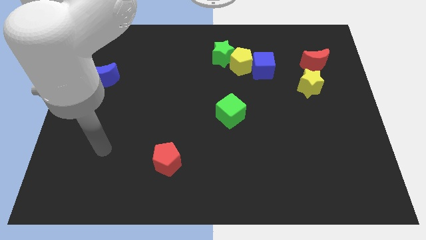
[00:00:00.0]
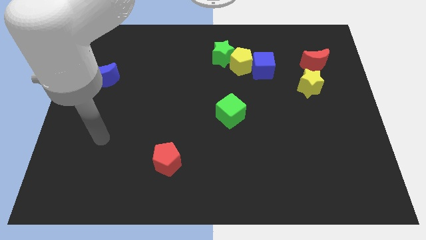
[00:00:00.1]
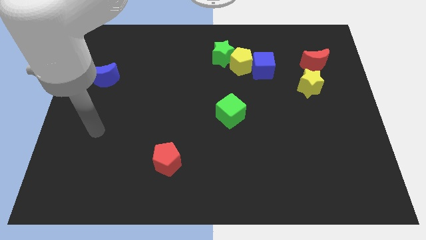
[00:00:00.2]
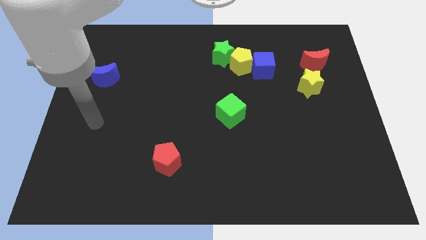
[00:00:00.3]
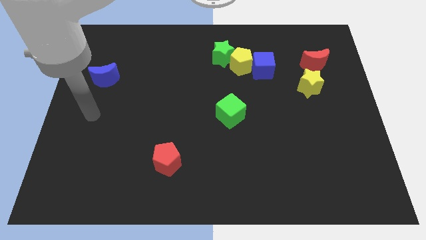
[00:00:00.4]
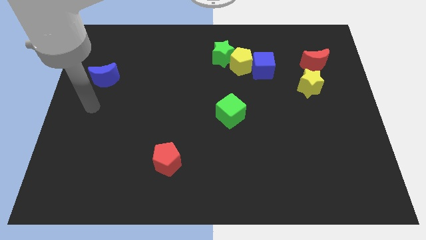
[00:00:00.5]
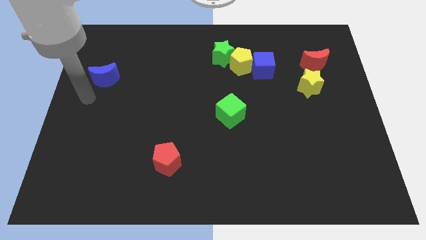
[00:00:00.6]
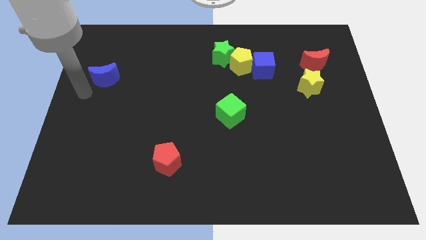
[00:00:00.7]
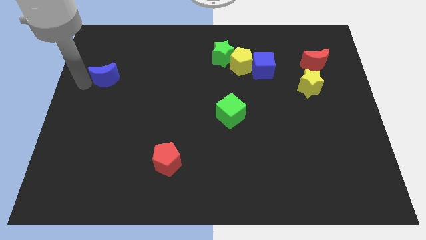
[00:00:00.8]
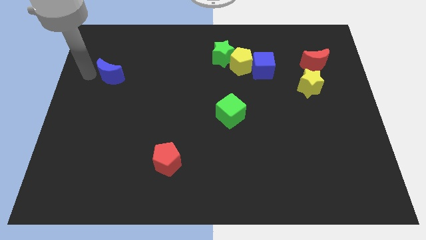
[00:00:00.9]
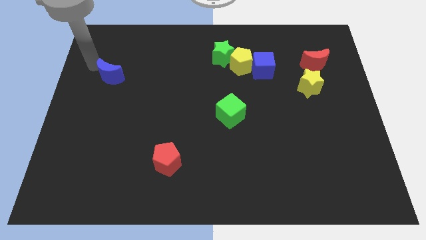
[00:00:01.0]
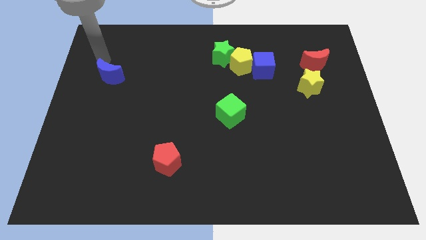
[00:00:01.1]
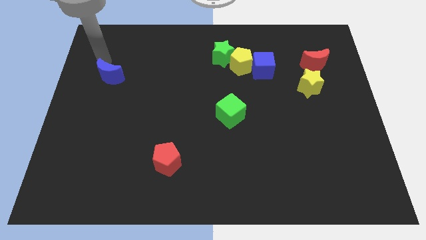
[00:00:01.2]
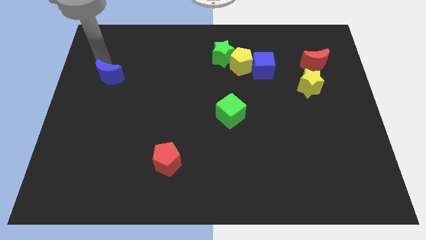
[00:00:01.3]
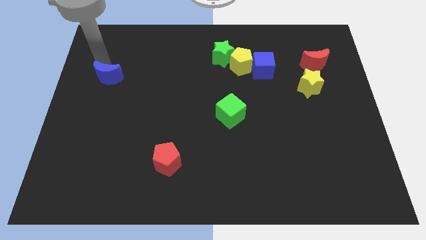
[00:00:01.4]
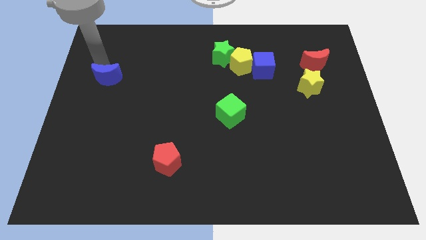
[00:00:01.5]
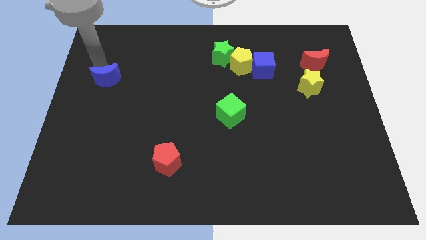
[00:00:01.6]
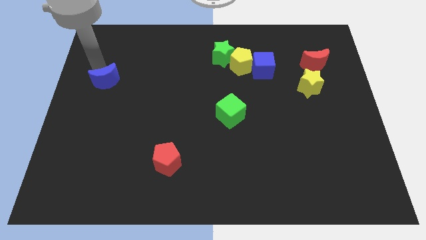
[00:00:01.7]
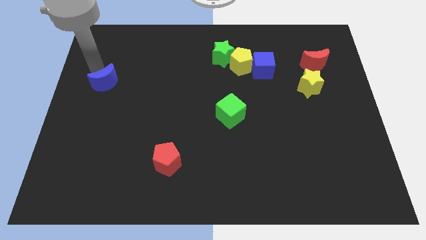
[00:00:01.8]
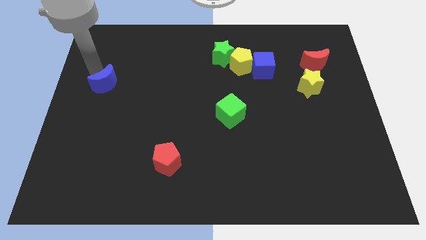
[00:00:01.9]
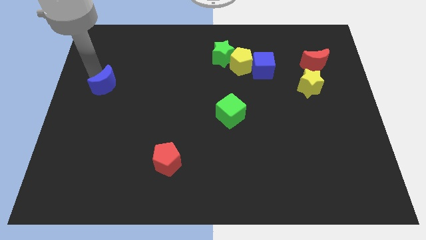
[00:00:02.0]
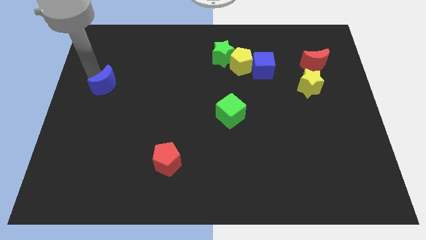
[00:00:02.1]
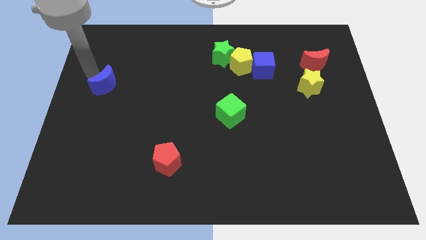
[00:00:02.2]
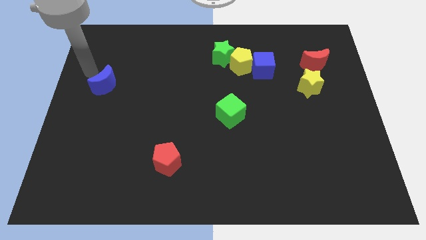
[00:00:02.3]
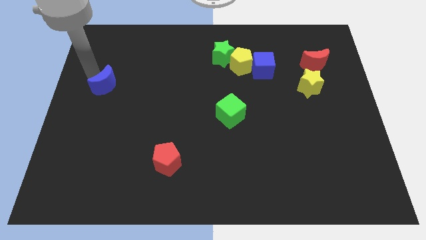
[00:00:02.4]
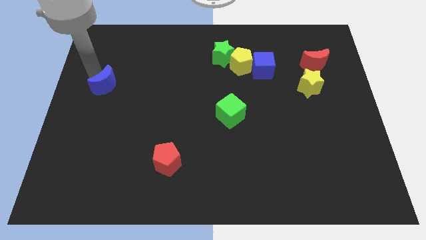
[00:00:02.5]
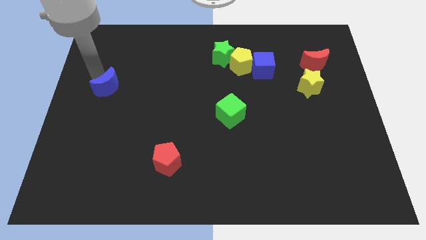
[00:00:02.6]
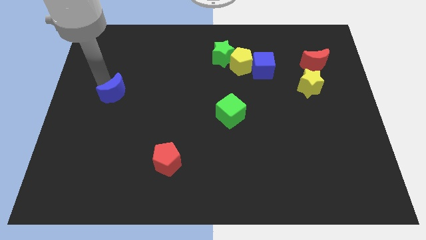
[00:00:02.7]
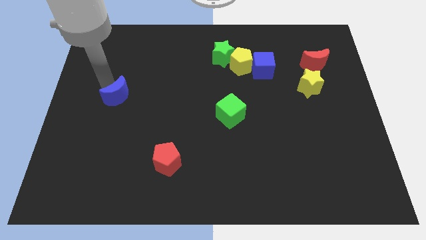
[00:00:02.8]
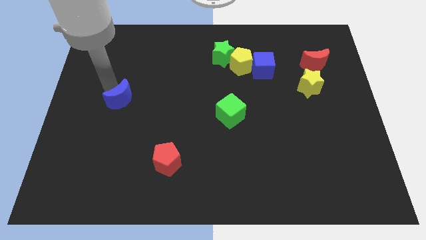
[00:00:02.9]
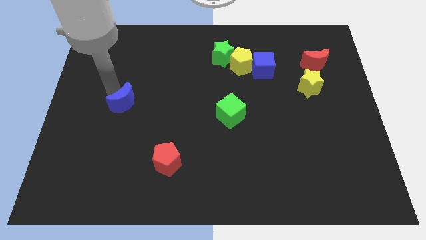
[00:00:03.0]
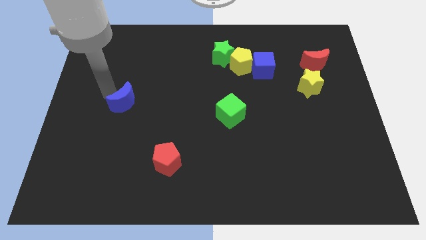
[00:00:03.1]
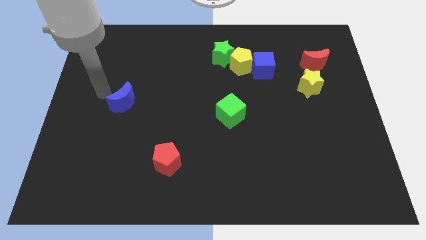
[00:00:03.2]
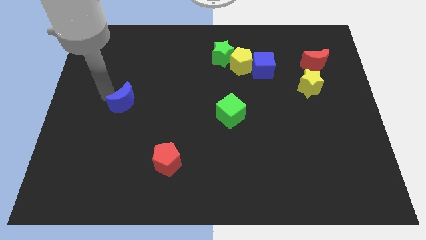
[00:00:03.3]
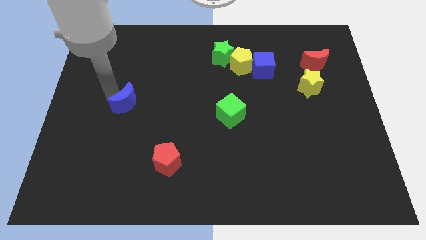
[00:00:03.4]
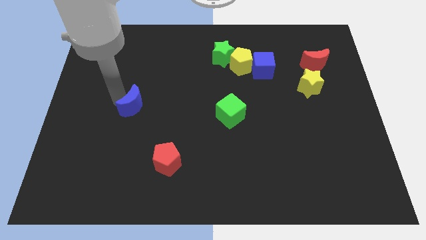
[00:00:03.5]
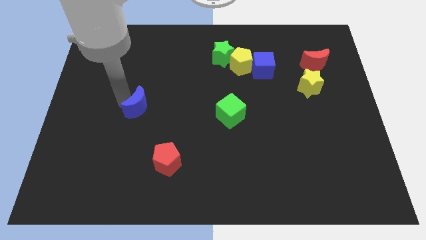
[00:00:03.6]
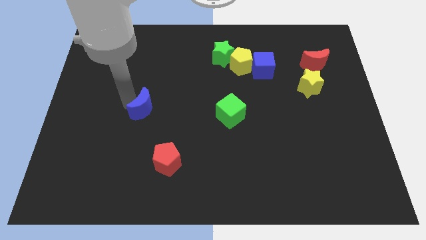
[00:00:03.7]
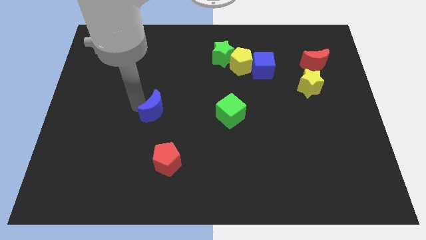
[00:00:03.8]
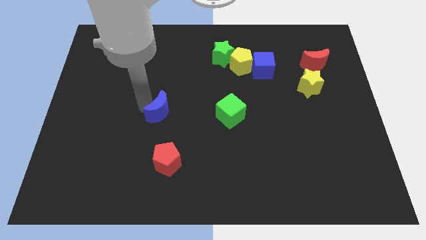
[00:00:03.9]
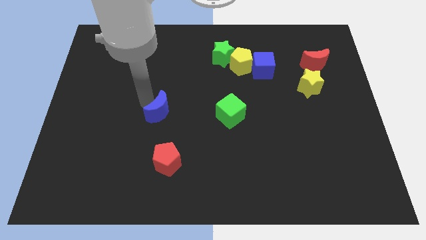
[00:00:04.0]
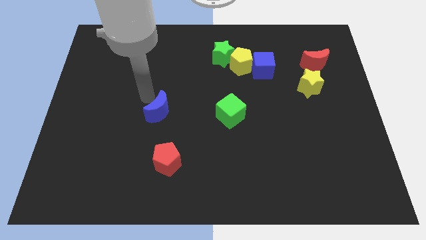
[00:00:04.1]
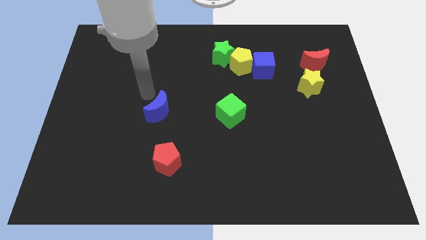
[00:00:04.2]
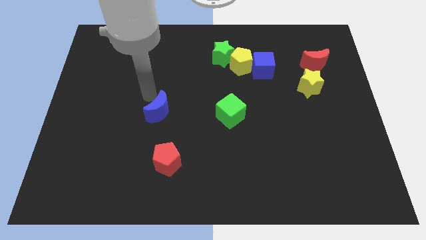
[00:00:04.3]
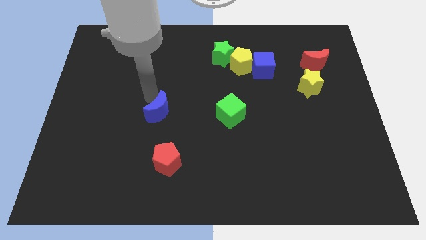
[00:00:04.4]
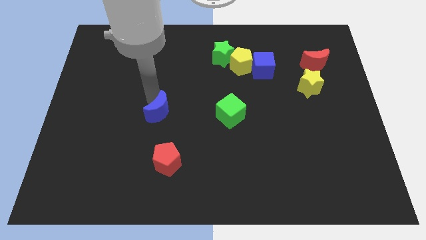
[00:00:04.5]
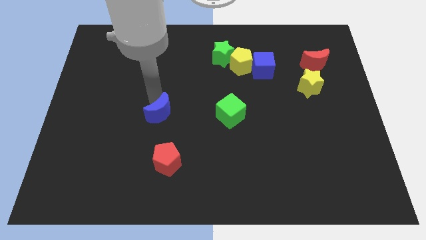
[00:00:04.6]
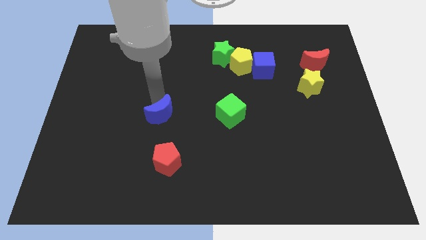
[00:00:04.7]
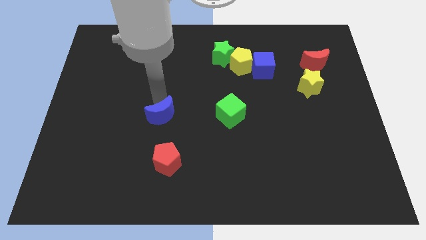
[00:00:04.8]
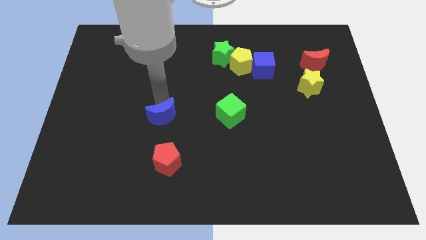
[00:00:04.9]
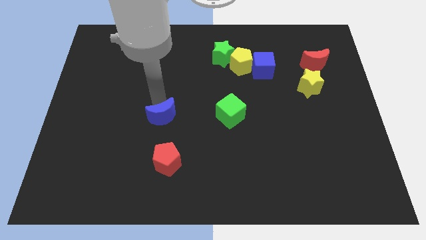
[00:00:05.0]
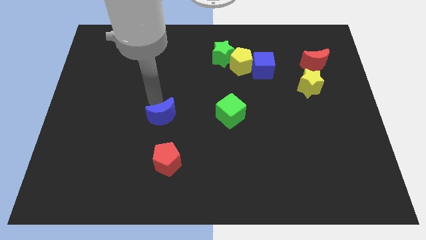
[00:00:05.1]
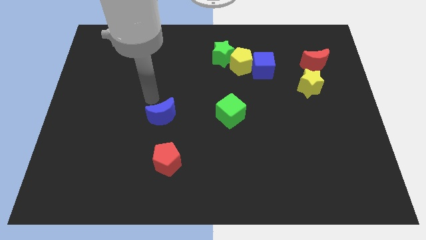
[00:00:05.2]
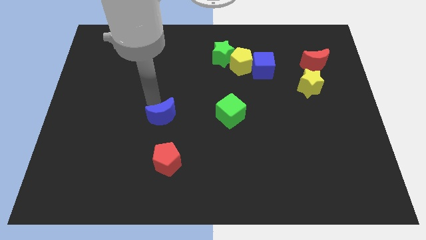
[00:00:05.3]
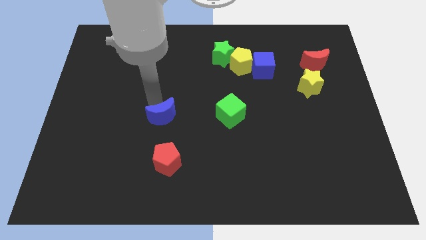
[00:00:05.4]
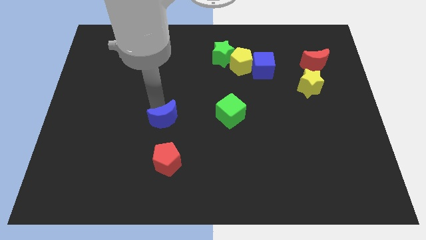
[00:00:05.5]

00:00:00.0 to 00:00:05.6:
push the blue moon diagonally down and to the right

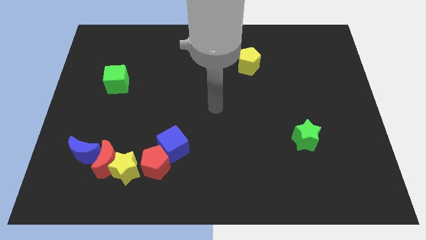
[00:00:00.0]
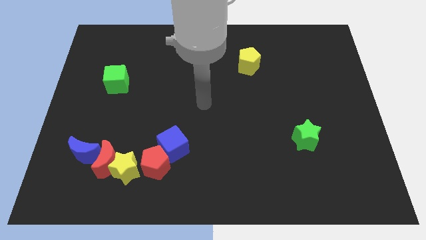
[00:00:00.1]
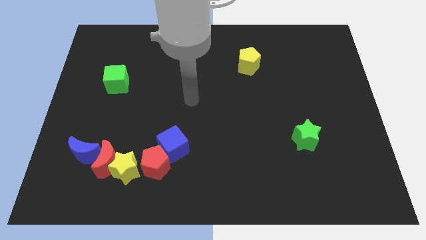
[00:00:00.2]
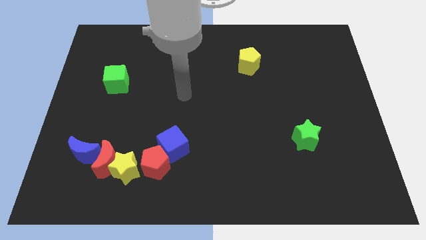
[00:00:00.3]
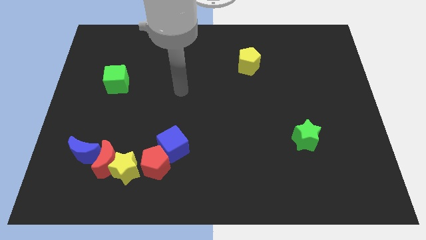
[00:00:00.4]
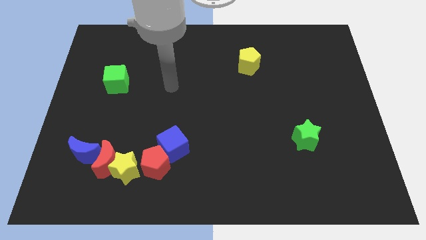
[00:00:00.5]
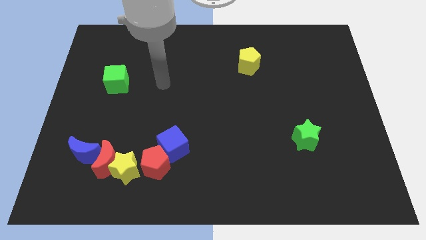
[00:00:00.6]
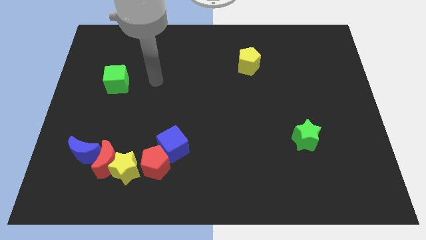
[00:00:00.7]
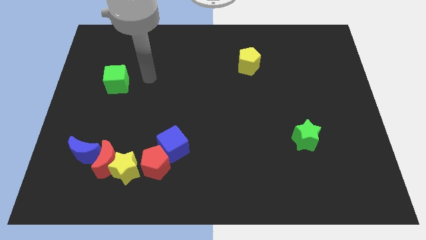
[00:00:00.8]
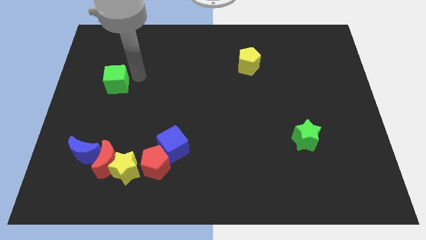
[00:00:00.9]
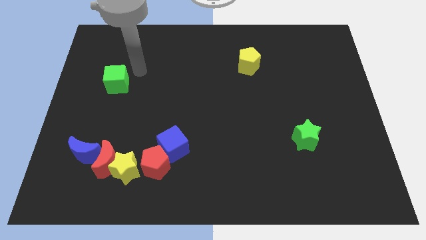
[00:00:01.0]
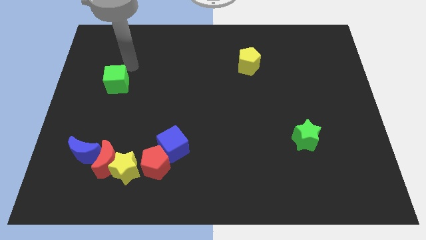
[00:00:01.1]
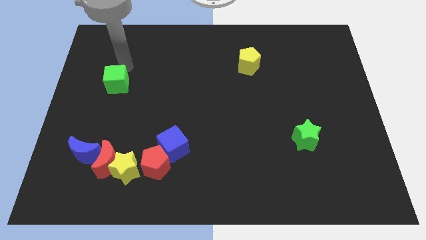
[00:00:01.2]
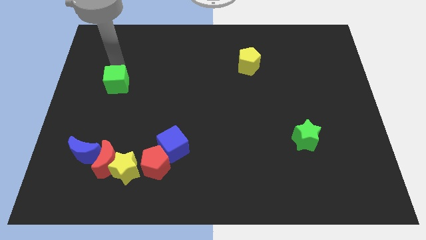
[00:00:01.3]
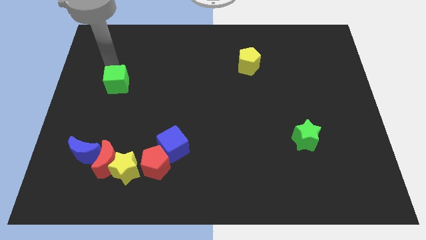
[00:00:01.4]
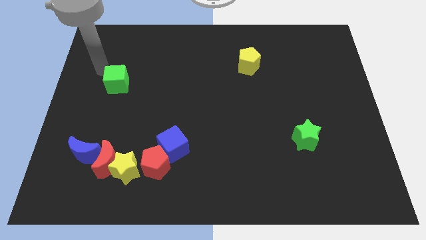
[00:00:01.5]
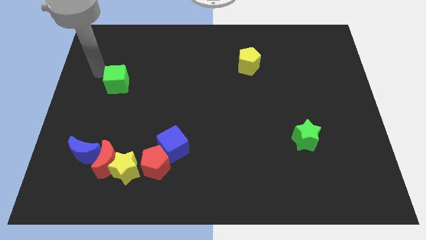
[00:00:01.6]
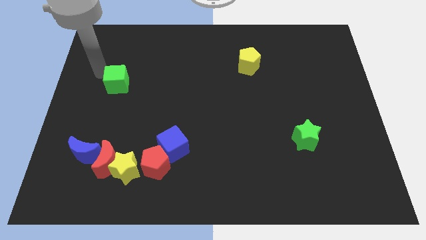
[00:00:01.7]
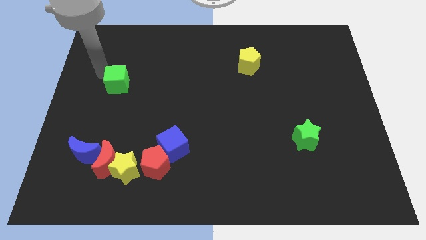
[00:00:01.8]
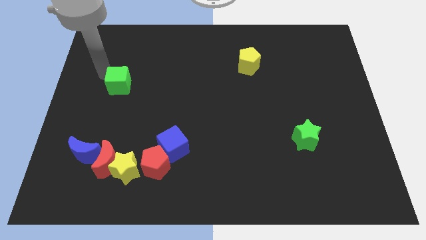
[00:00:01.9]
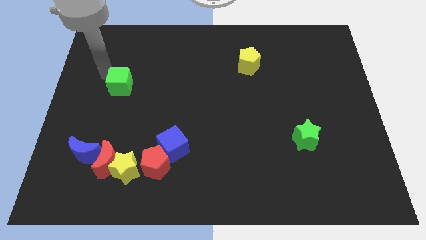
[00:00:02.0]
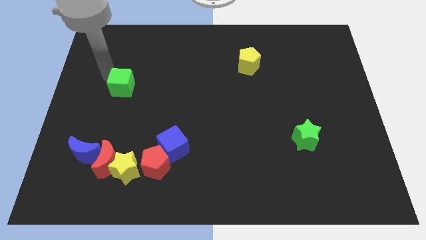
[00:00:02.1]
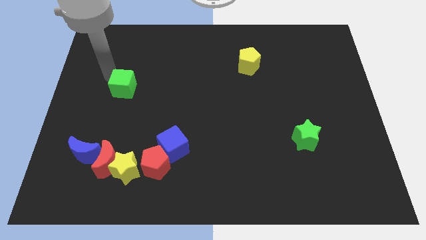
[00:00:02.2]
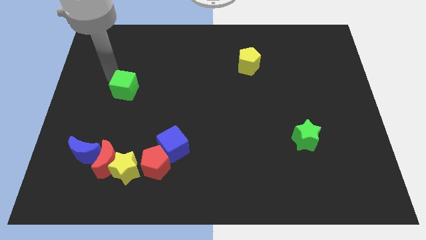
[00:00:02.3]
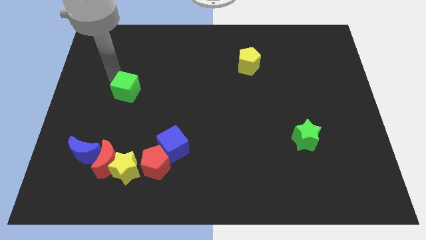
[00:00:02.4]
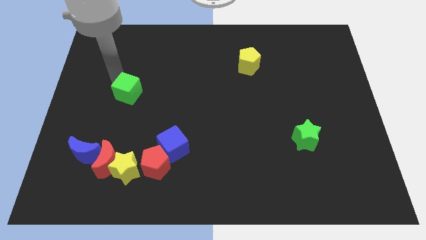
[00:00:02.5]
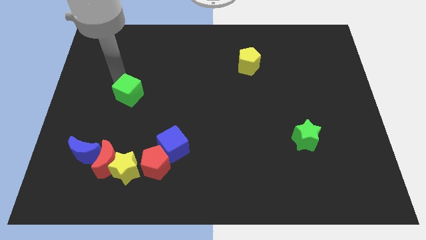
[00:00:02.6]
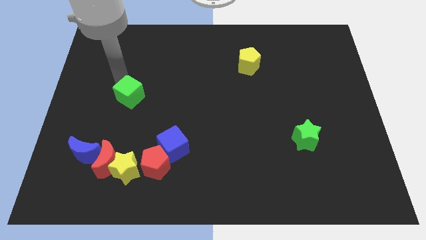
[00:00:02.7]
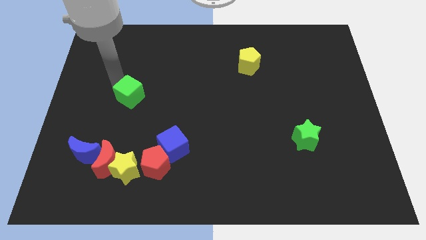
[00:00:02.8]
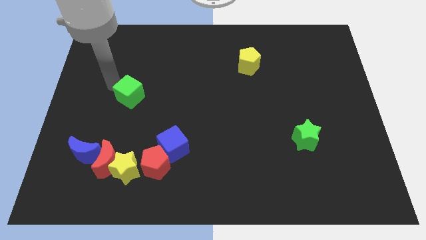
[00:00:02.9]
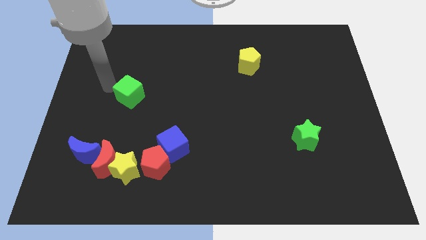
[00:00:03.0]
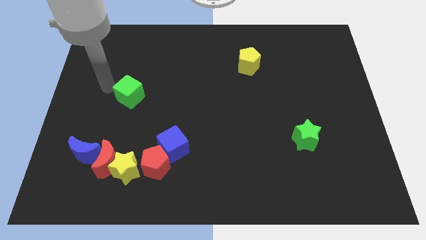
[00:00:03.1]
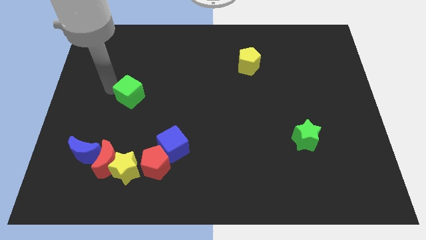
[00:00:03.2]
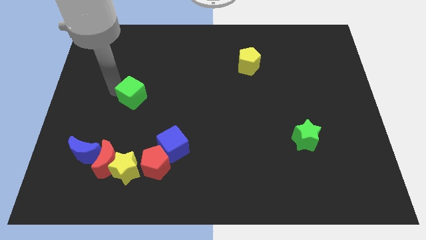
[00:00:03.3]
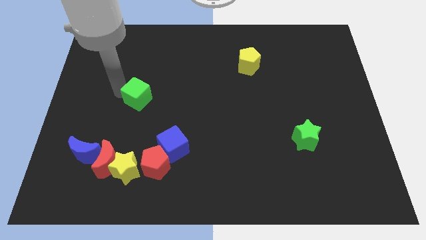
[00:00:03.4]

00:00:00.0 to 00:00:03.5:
move the green cube down and right diagonally a little bit
